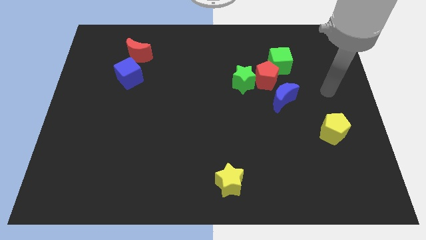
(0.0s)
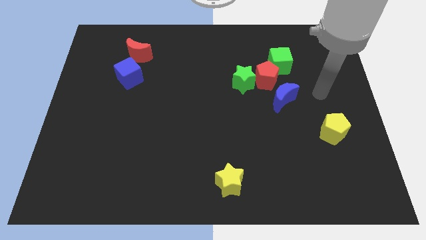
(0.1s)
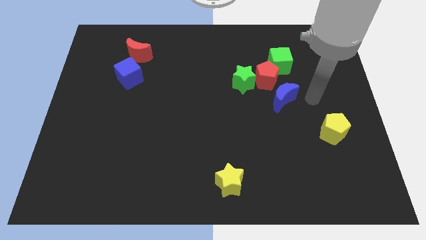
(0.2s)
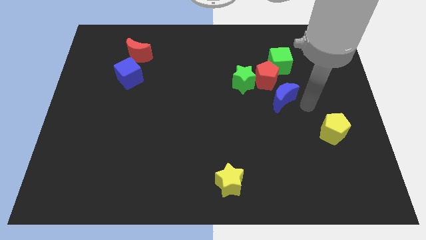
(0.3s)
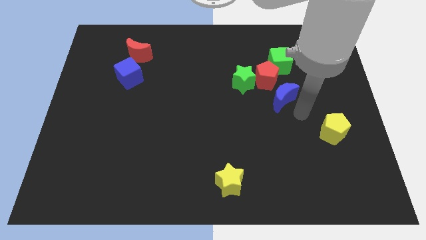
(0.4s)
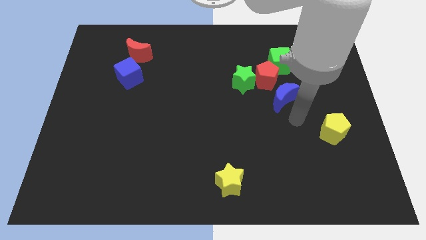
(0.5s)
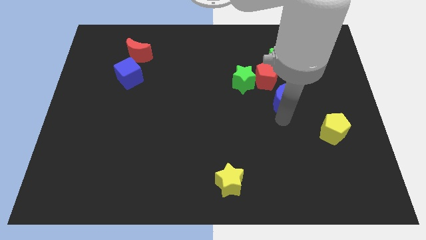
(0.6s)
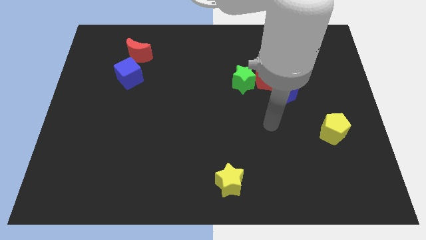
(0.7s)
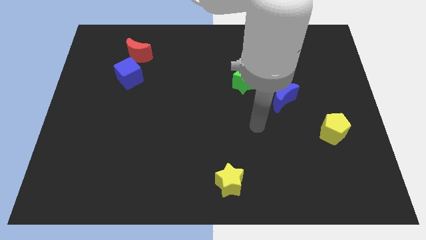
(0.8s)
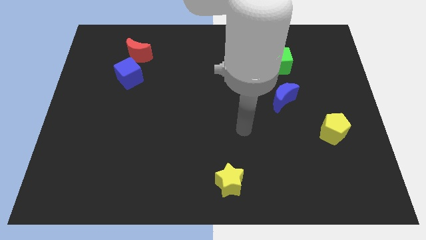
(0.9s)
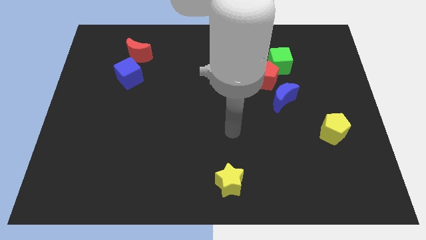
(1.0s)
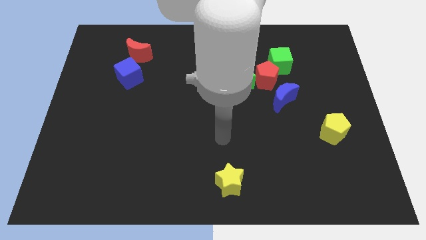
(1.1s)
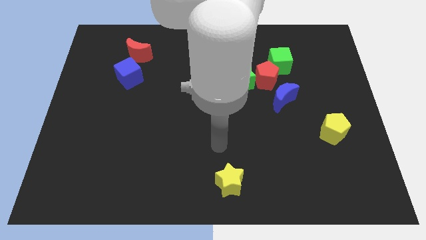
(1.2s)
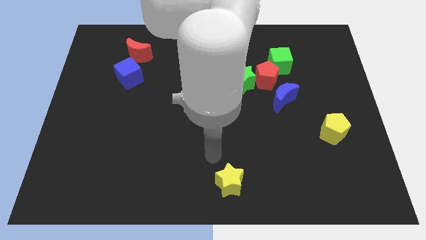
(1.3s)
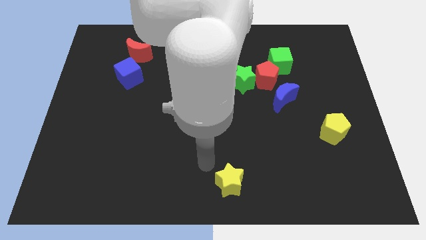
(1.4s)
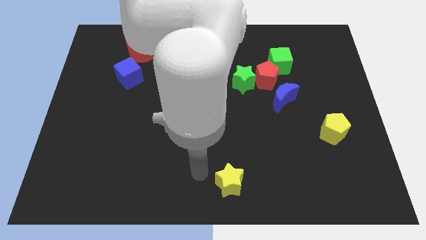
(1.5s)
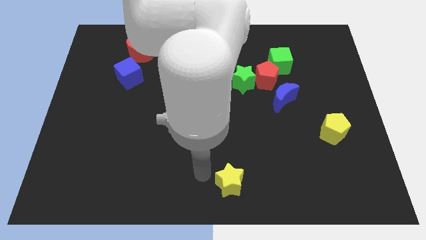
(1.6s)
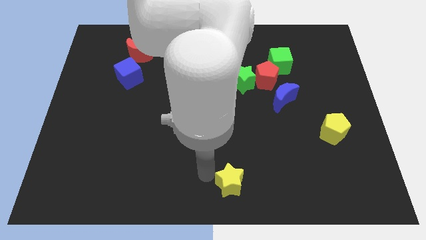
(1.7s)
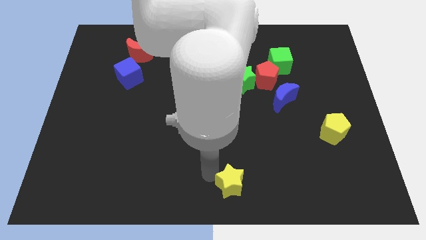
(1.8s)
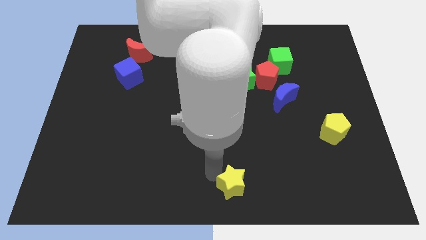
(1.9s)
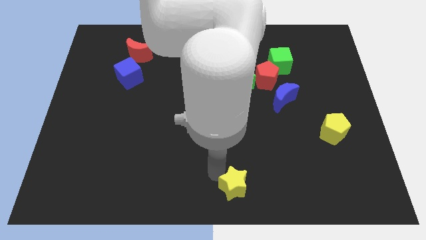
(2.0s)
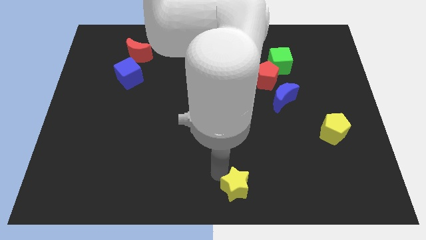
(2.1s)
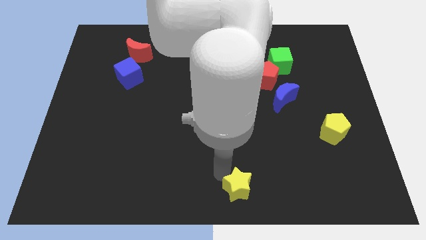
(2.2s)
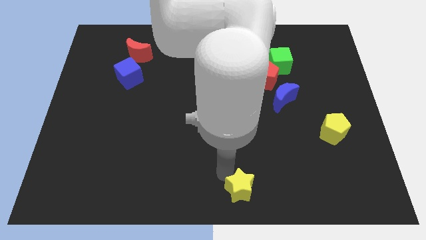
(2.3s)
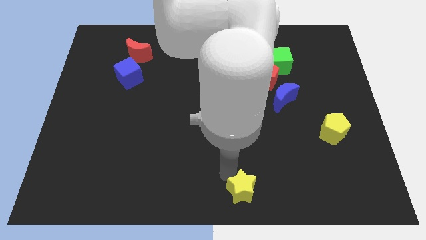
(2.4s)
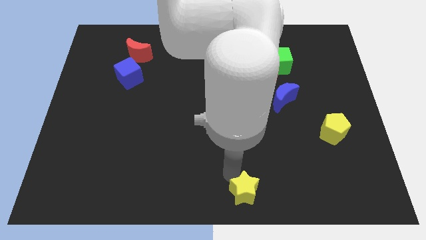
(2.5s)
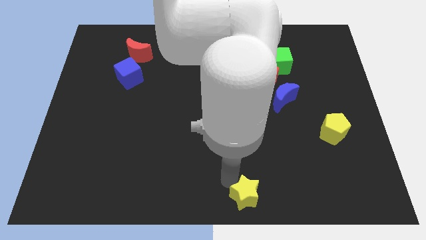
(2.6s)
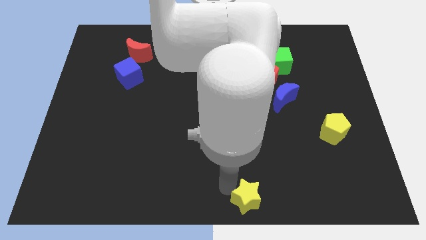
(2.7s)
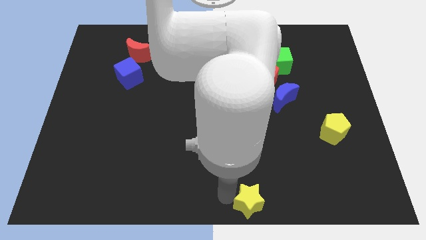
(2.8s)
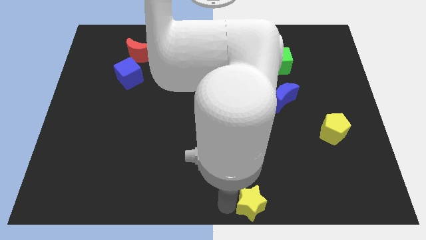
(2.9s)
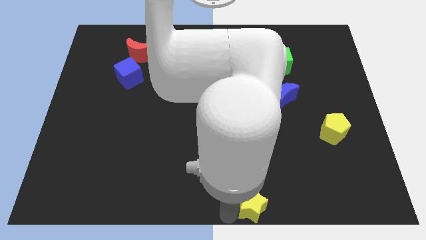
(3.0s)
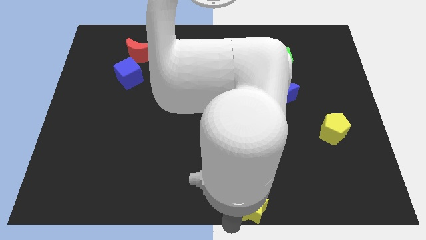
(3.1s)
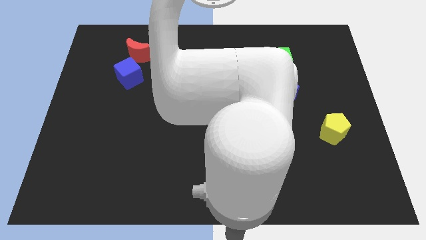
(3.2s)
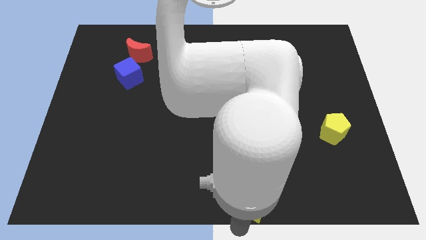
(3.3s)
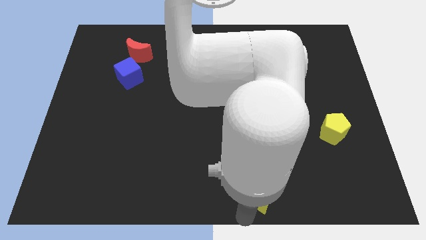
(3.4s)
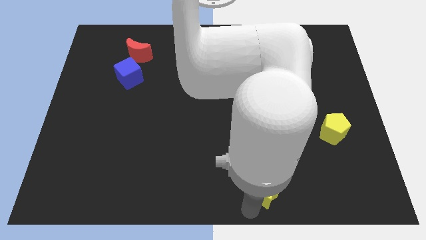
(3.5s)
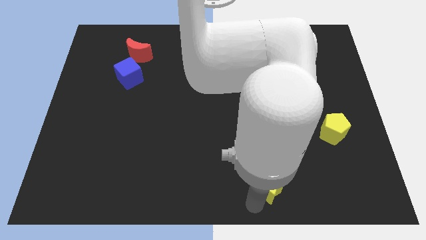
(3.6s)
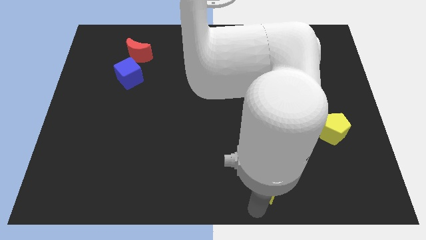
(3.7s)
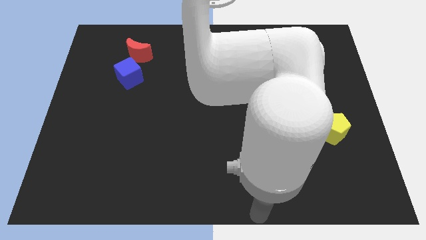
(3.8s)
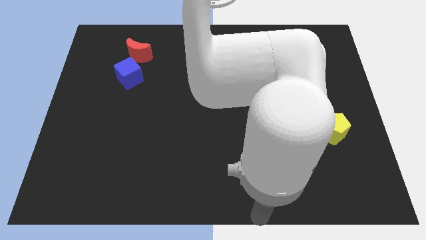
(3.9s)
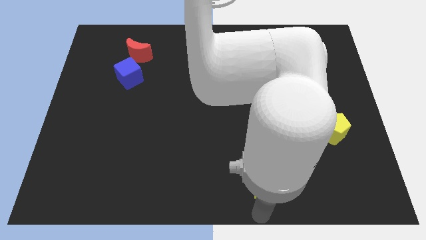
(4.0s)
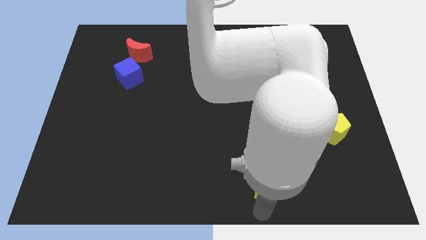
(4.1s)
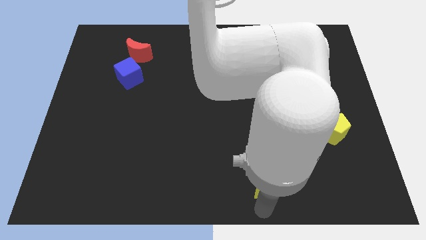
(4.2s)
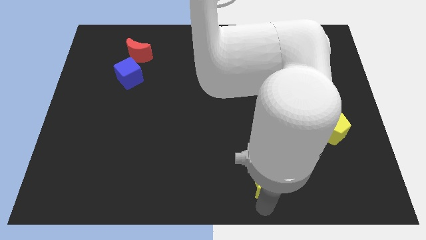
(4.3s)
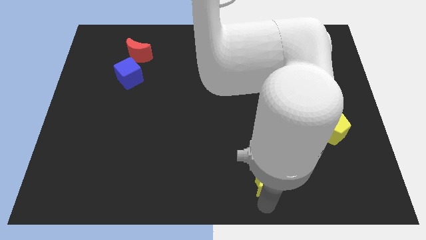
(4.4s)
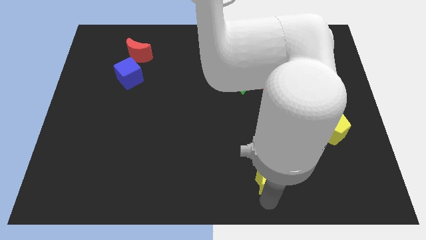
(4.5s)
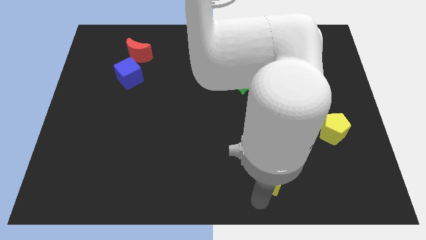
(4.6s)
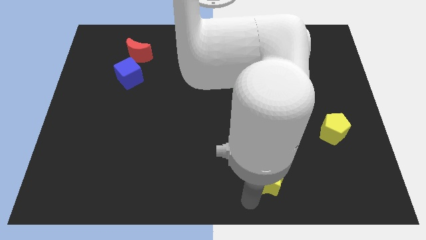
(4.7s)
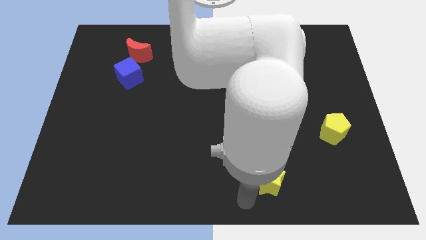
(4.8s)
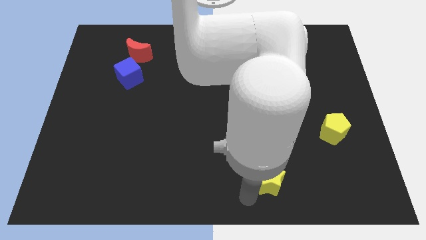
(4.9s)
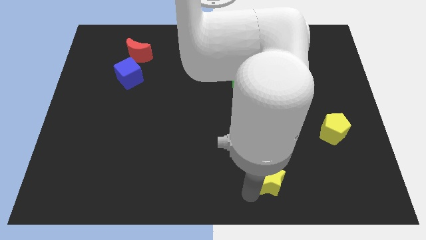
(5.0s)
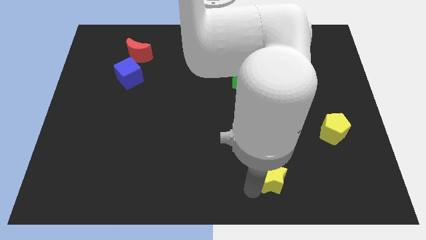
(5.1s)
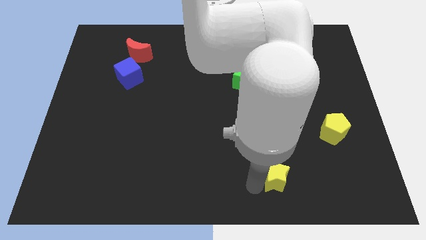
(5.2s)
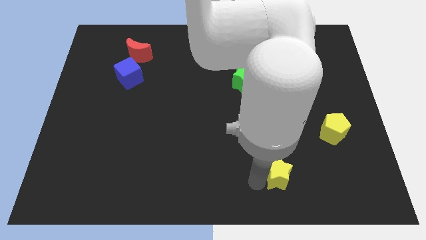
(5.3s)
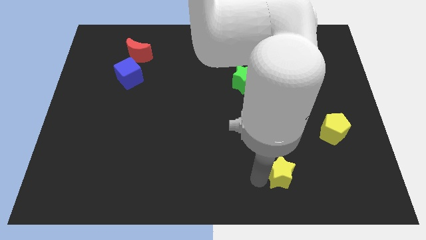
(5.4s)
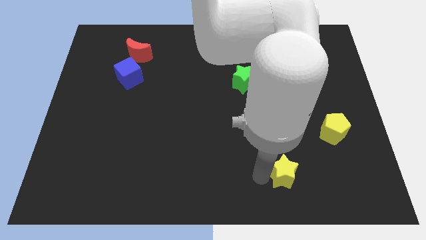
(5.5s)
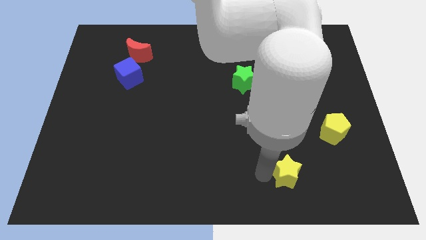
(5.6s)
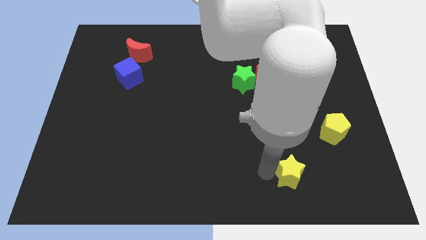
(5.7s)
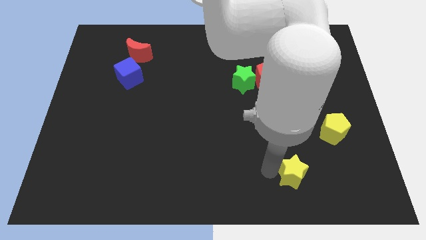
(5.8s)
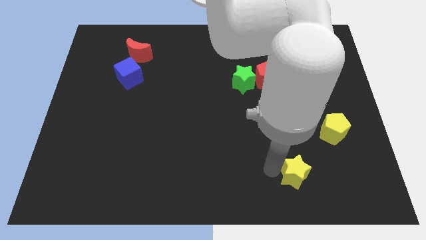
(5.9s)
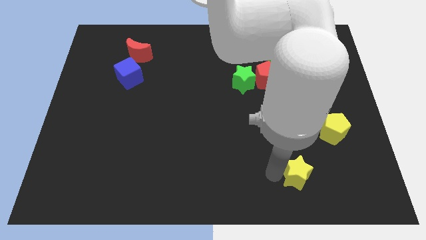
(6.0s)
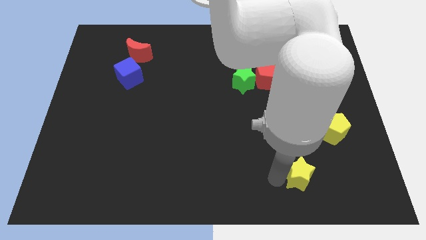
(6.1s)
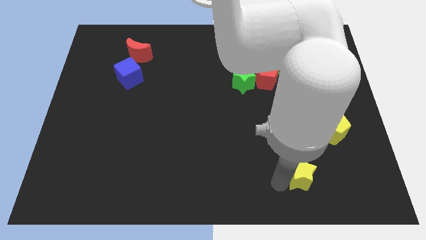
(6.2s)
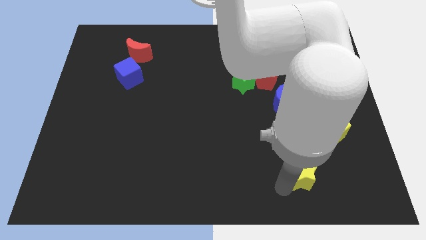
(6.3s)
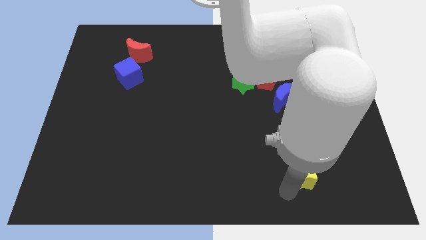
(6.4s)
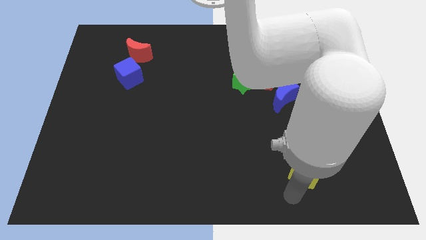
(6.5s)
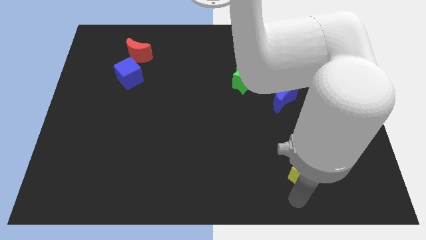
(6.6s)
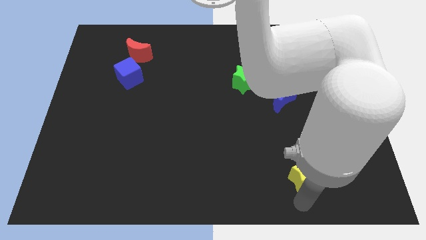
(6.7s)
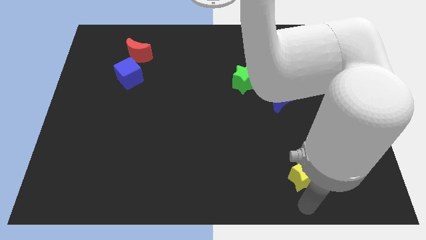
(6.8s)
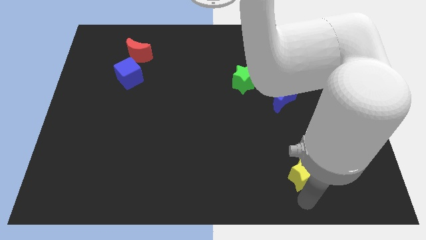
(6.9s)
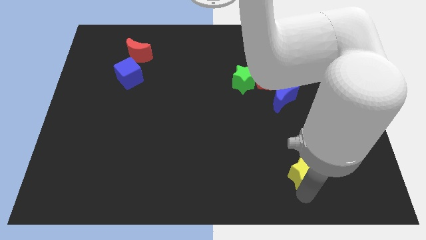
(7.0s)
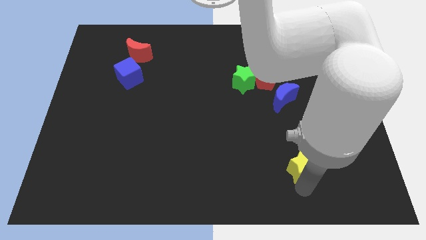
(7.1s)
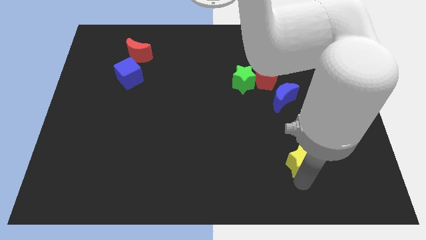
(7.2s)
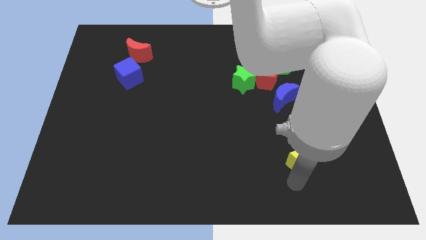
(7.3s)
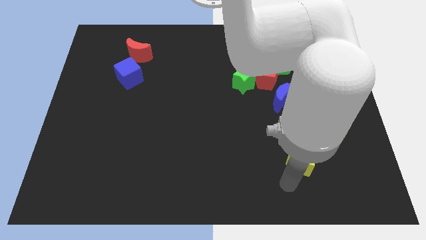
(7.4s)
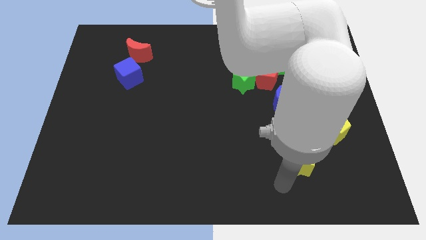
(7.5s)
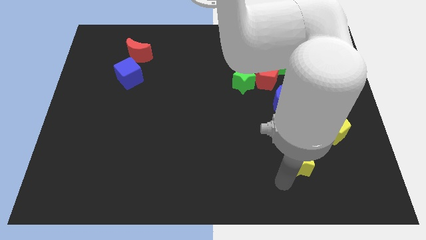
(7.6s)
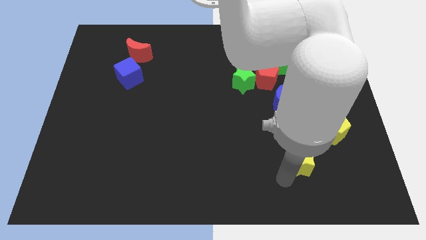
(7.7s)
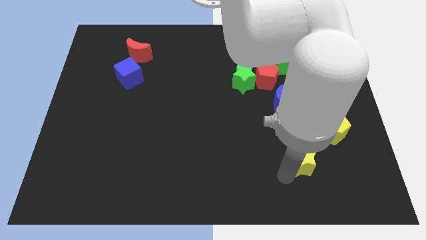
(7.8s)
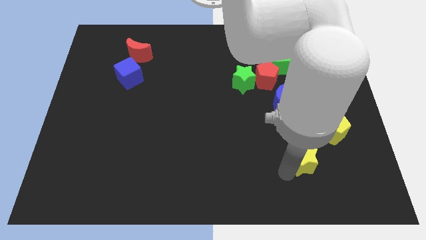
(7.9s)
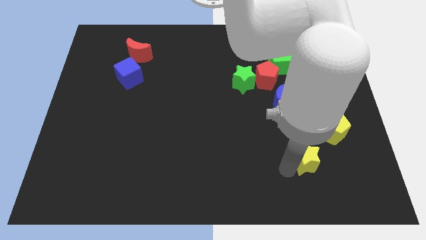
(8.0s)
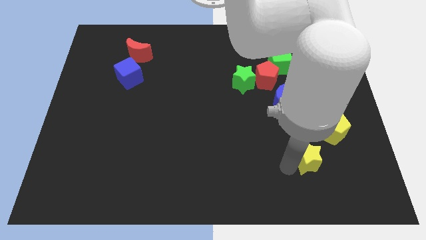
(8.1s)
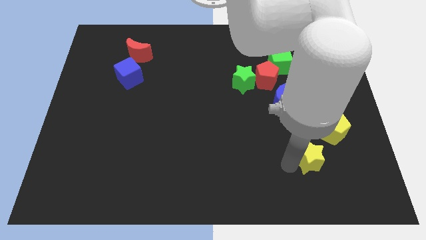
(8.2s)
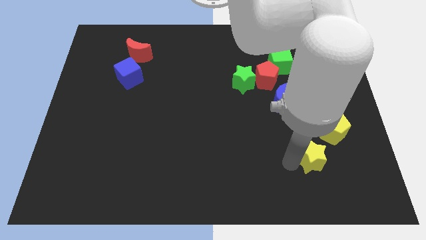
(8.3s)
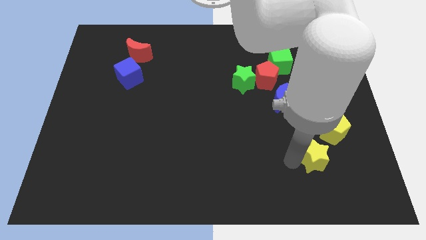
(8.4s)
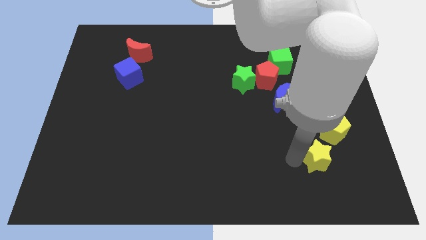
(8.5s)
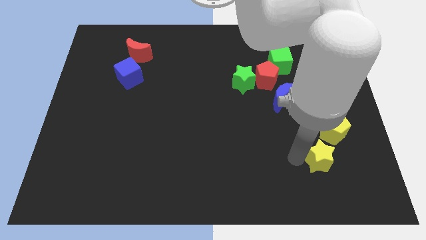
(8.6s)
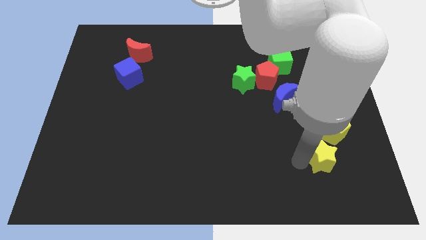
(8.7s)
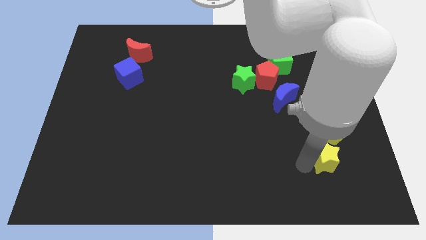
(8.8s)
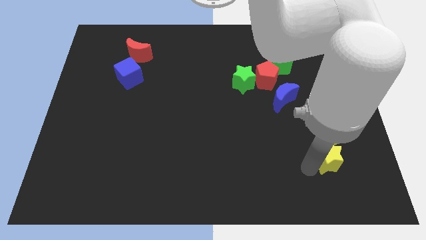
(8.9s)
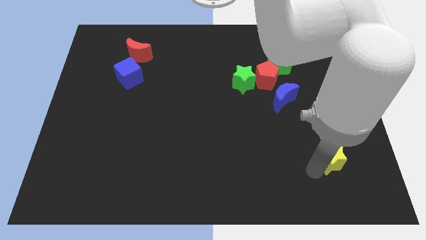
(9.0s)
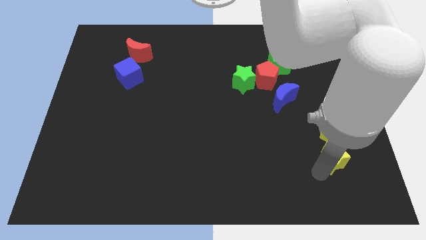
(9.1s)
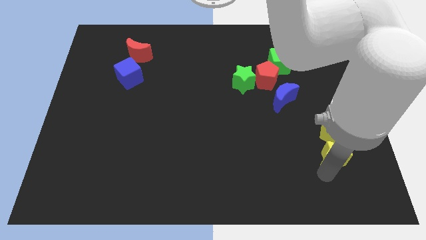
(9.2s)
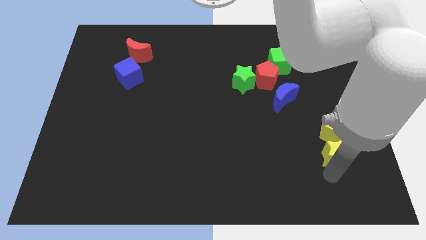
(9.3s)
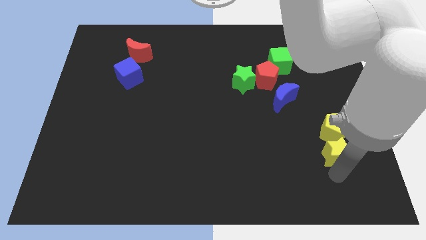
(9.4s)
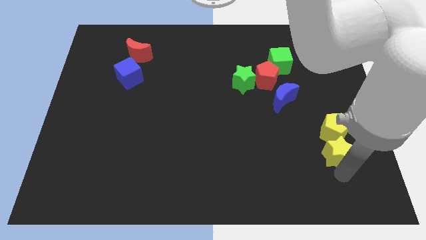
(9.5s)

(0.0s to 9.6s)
move the yellow star towards the yellow pentagon
